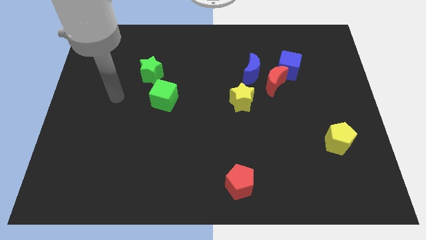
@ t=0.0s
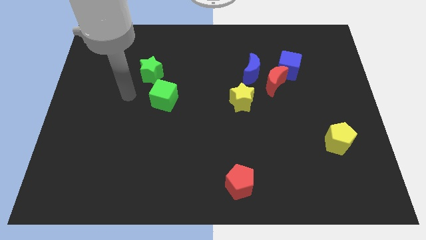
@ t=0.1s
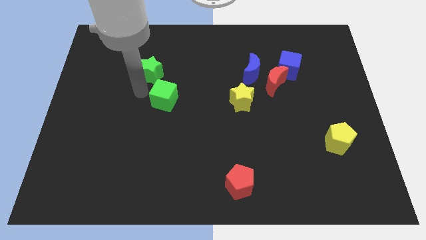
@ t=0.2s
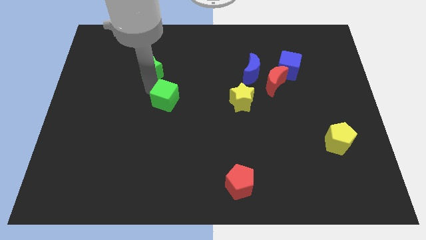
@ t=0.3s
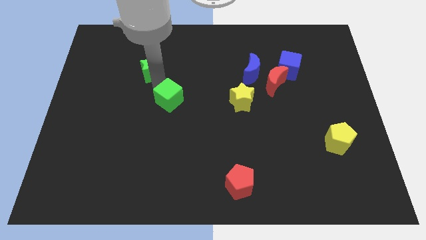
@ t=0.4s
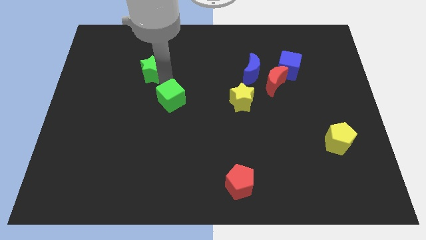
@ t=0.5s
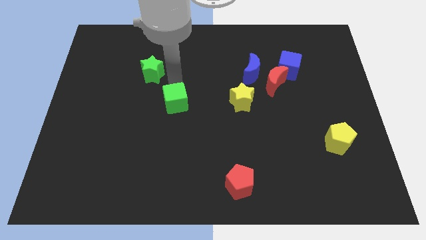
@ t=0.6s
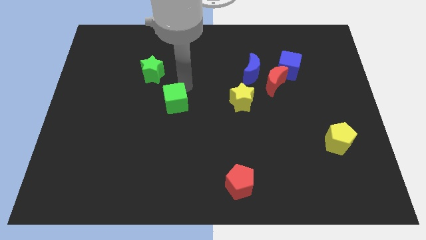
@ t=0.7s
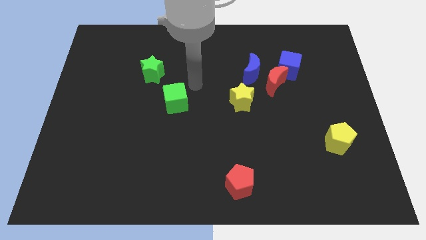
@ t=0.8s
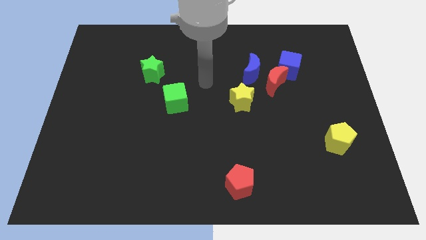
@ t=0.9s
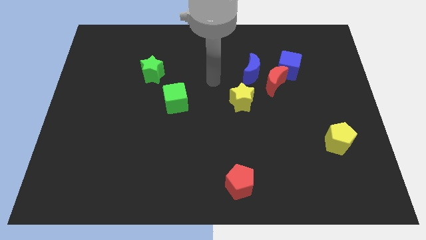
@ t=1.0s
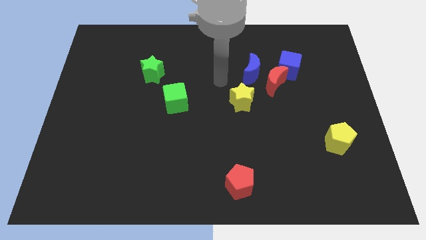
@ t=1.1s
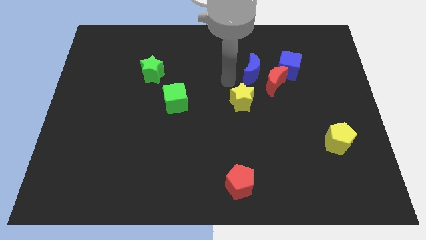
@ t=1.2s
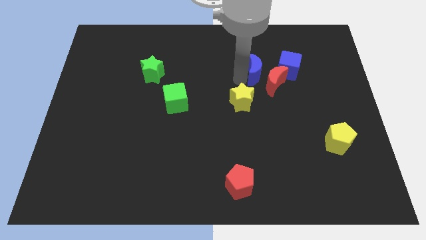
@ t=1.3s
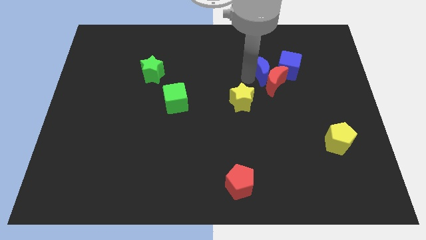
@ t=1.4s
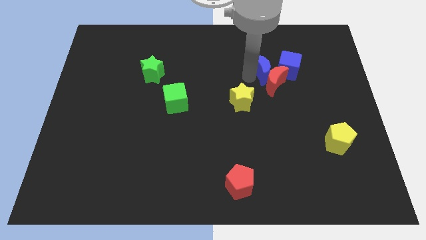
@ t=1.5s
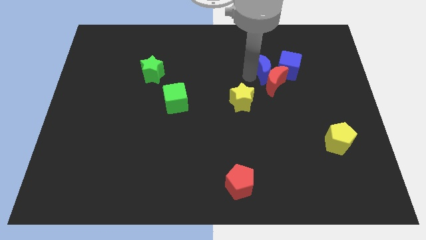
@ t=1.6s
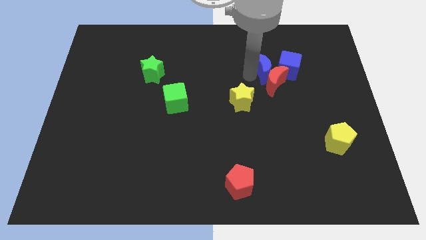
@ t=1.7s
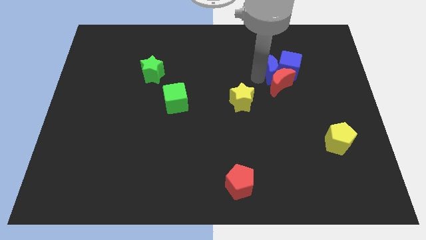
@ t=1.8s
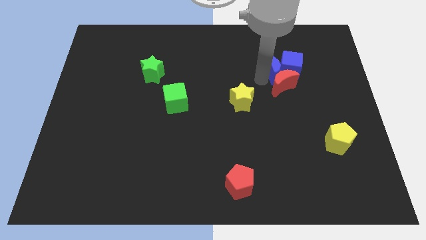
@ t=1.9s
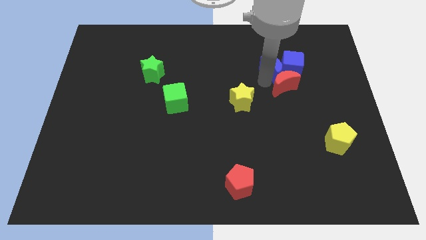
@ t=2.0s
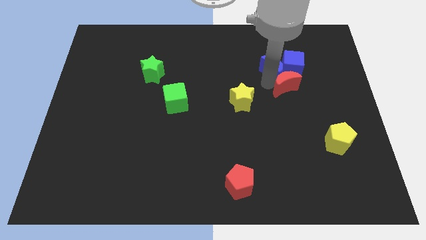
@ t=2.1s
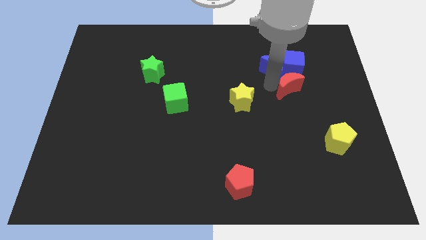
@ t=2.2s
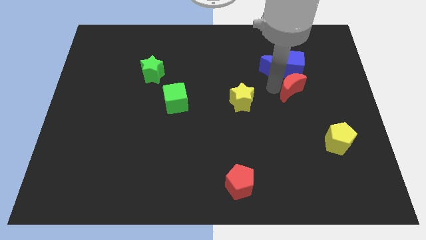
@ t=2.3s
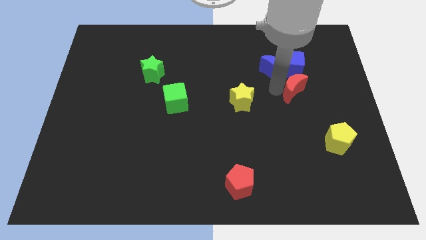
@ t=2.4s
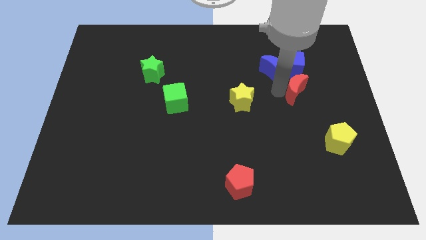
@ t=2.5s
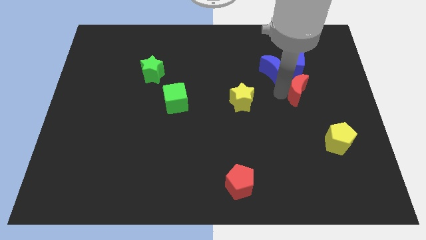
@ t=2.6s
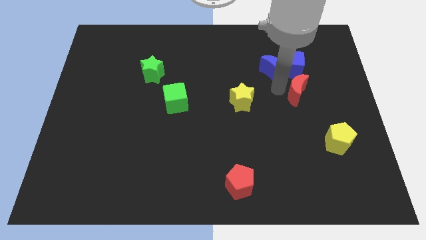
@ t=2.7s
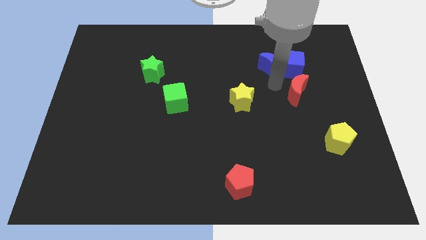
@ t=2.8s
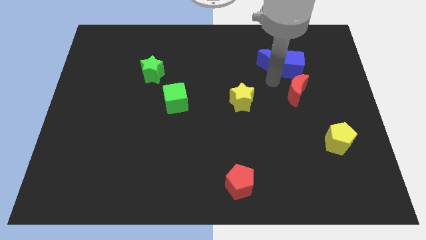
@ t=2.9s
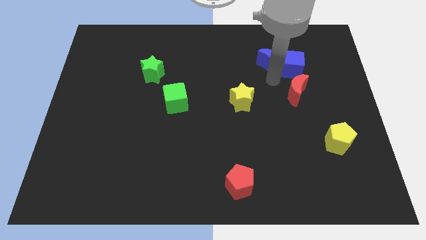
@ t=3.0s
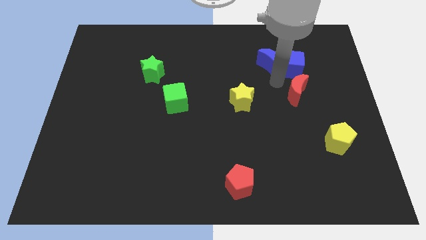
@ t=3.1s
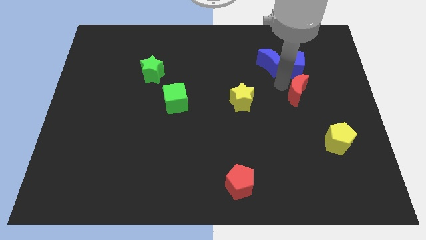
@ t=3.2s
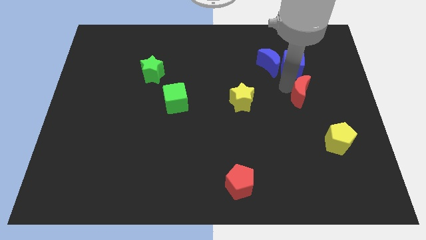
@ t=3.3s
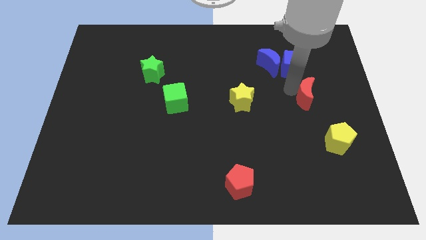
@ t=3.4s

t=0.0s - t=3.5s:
separate the red moon from the blue moon, blue cube, and yellow star

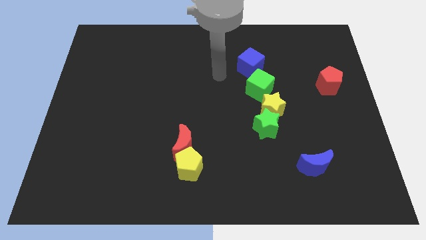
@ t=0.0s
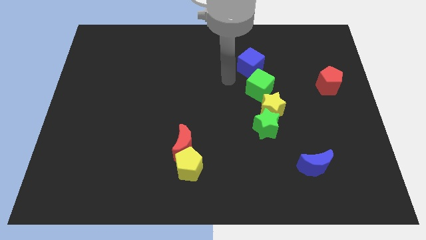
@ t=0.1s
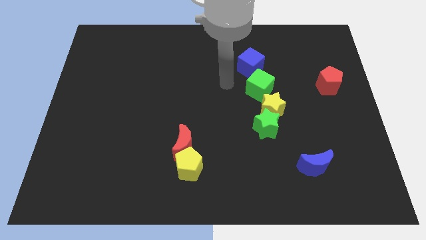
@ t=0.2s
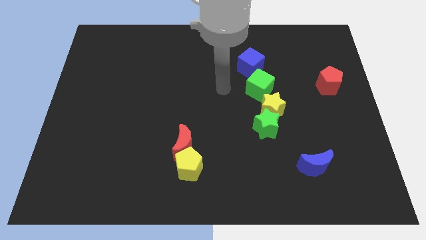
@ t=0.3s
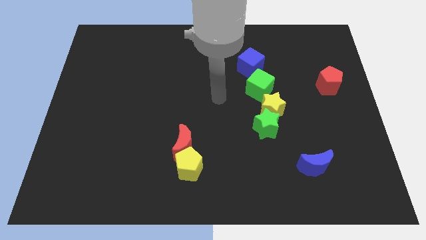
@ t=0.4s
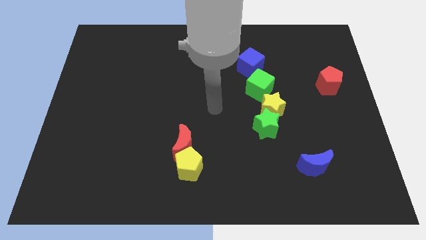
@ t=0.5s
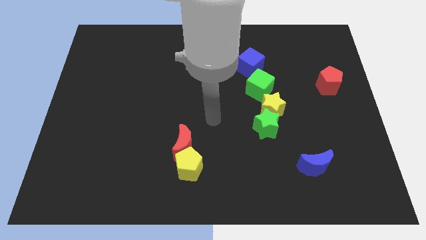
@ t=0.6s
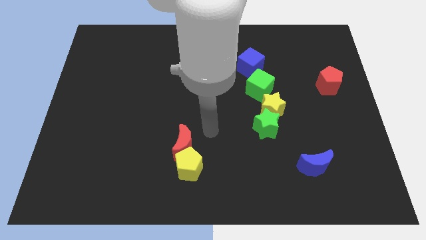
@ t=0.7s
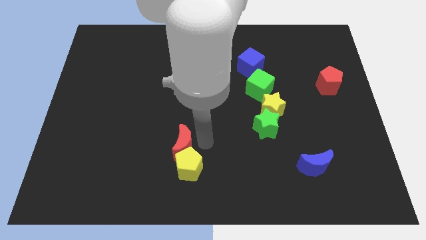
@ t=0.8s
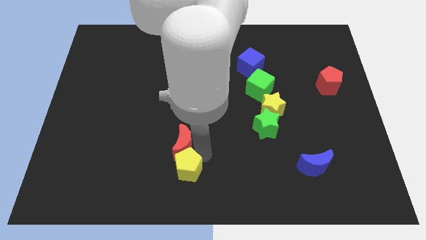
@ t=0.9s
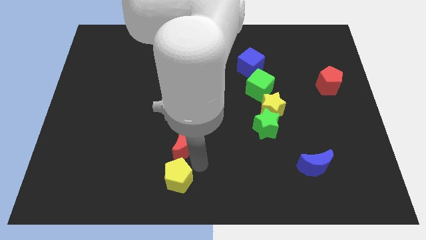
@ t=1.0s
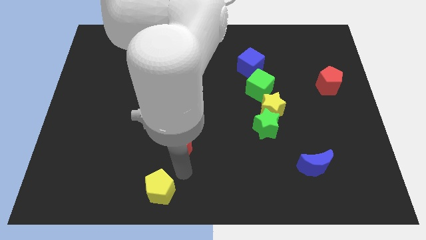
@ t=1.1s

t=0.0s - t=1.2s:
move the red moon away from the yellow pentagon

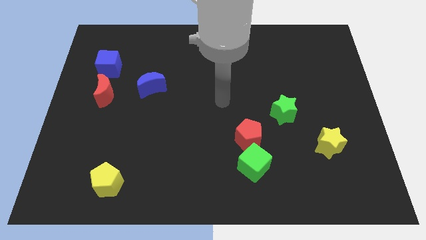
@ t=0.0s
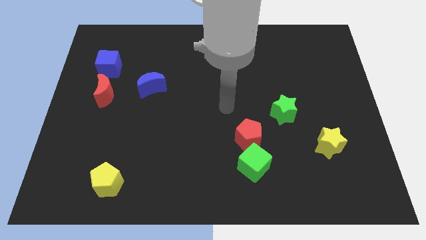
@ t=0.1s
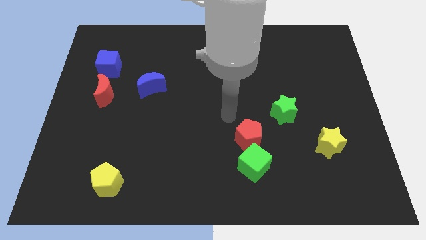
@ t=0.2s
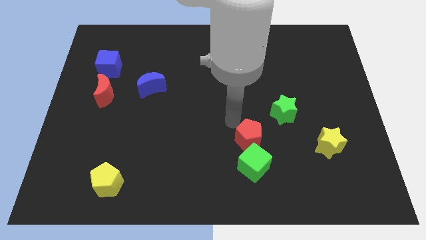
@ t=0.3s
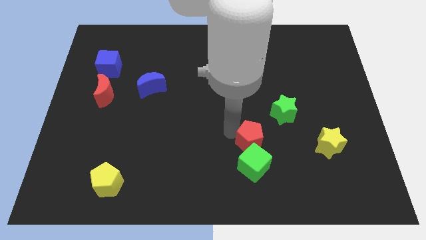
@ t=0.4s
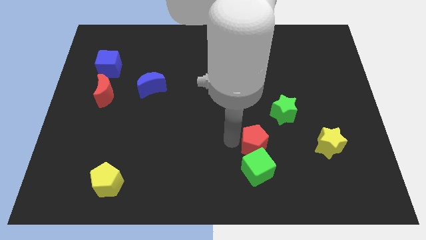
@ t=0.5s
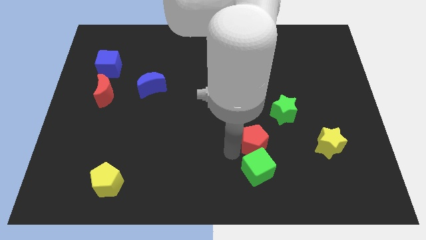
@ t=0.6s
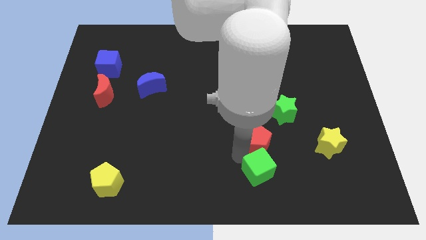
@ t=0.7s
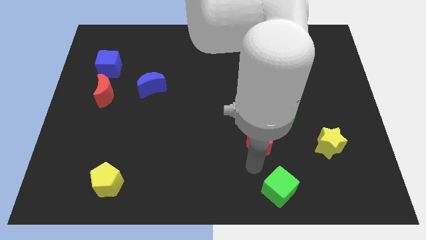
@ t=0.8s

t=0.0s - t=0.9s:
separate the red pentagon from the green cube

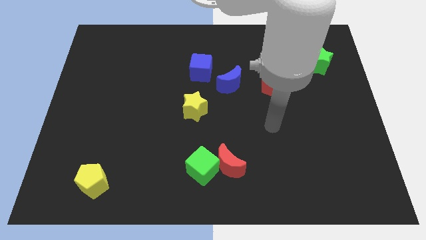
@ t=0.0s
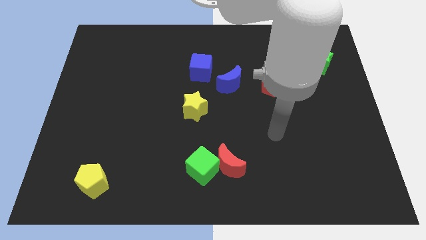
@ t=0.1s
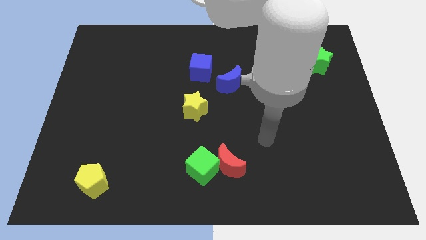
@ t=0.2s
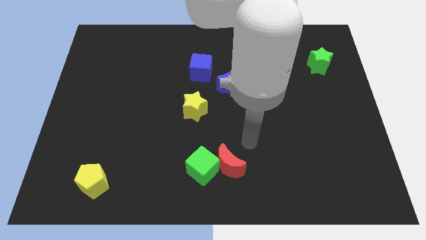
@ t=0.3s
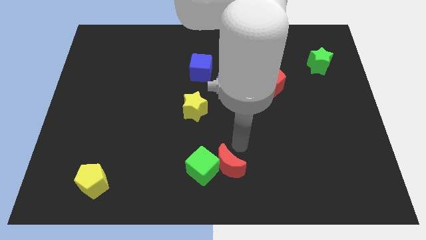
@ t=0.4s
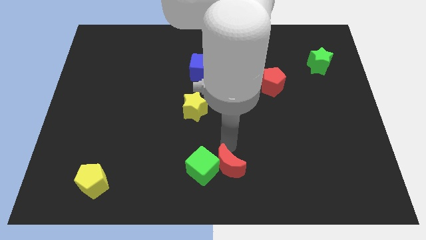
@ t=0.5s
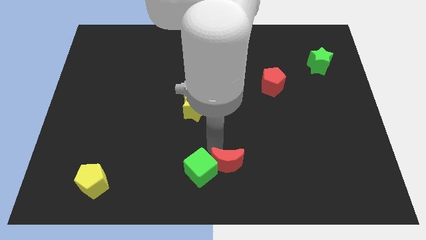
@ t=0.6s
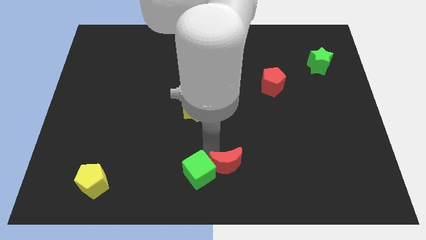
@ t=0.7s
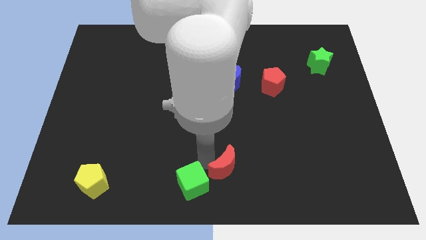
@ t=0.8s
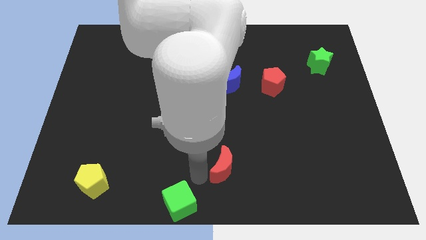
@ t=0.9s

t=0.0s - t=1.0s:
move the red moon away from the green cube

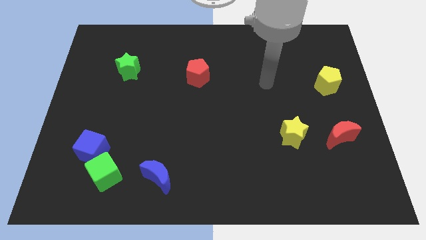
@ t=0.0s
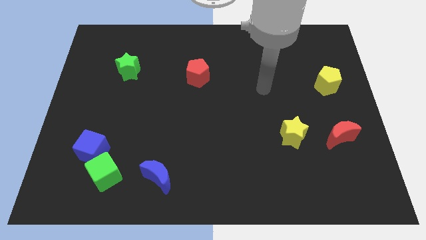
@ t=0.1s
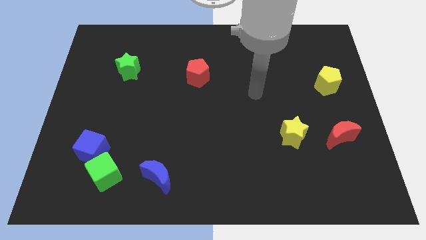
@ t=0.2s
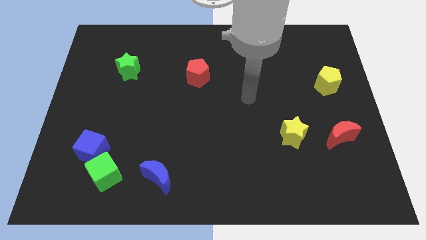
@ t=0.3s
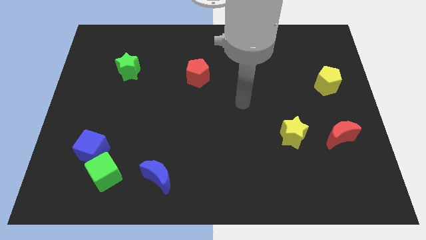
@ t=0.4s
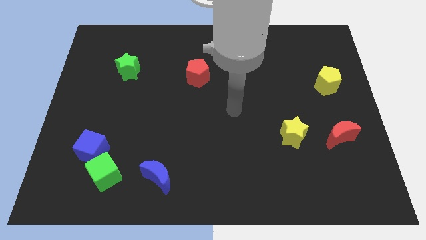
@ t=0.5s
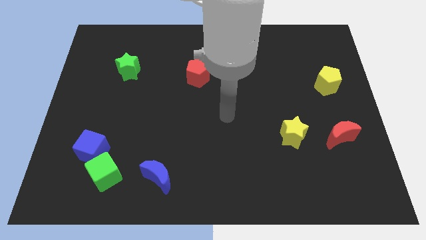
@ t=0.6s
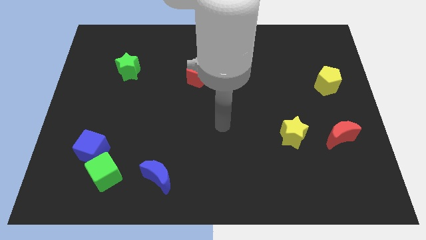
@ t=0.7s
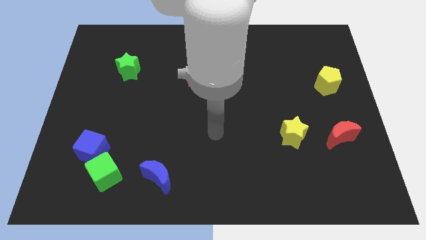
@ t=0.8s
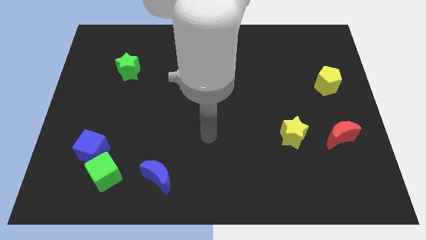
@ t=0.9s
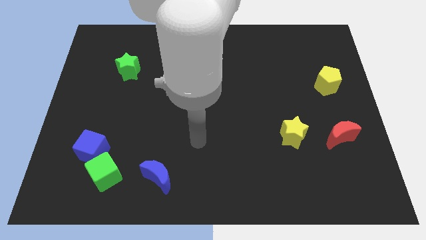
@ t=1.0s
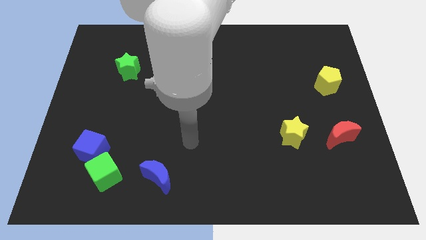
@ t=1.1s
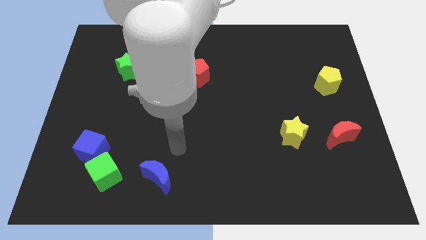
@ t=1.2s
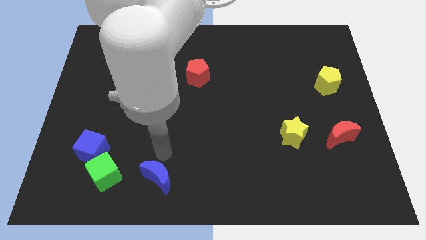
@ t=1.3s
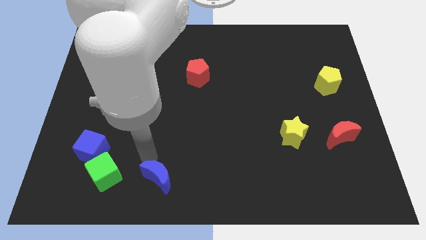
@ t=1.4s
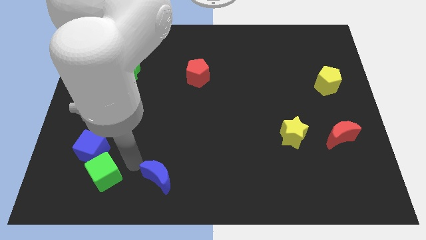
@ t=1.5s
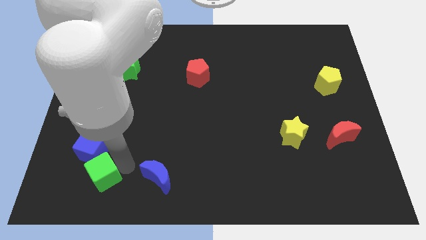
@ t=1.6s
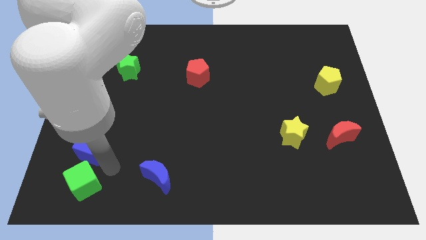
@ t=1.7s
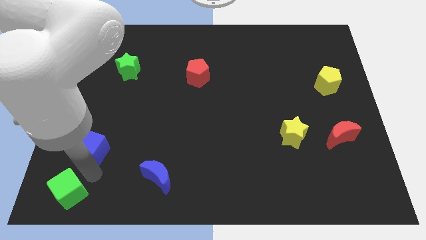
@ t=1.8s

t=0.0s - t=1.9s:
separate the blue cube from the green cube

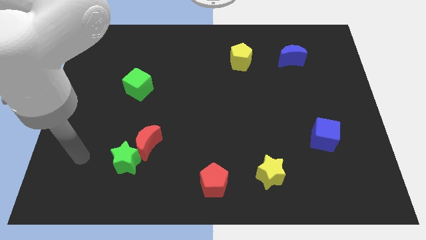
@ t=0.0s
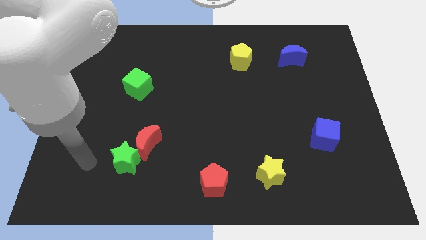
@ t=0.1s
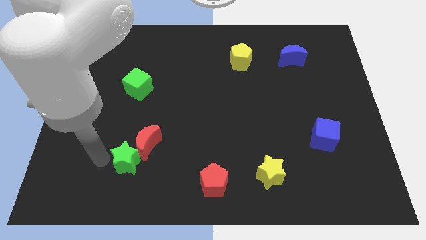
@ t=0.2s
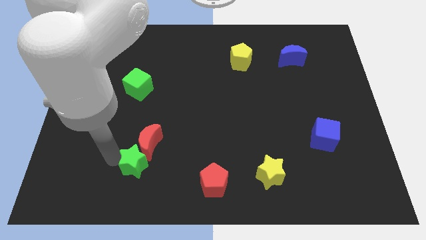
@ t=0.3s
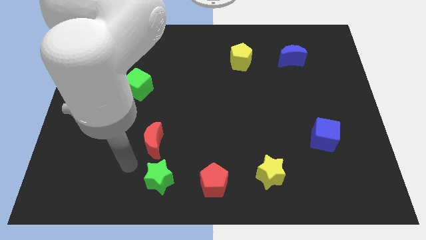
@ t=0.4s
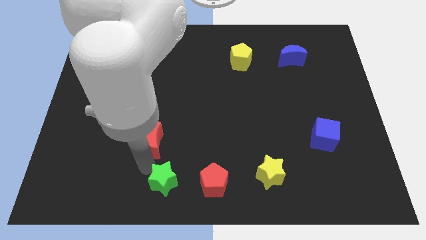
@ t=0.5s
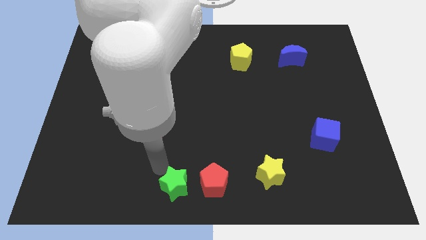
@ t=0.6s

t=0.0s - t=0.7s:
separate the red moon from the green star

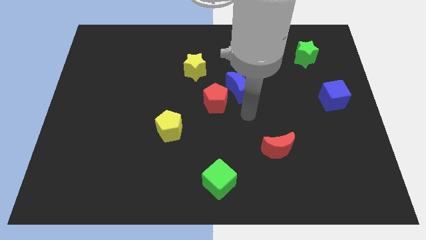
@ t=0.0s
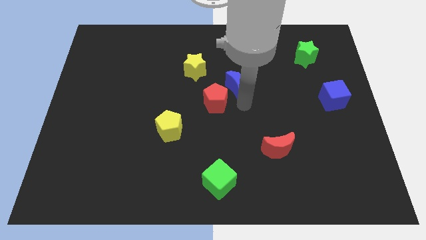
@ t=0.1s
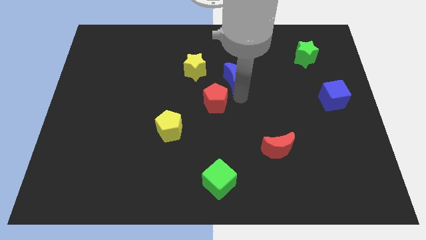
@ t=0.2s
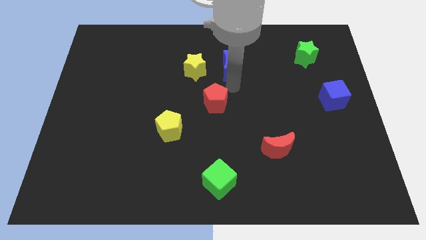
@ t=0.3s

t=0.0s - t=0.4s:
pull the red pentagon apart from the blue moon
